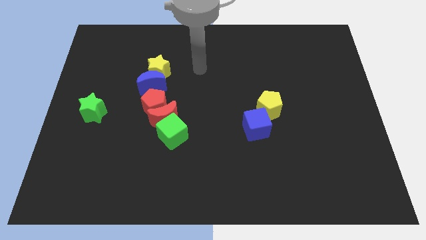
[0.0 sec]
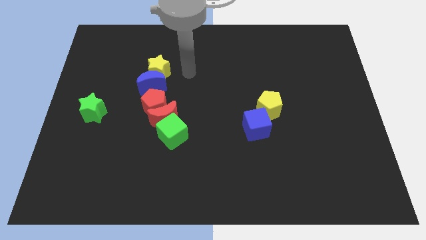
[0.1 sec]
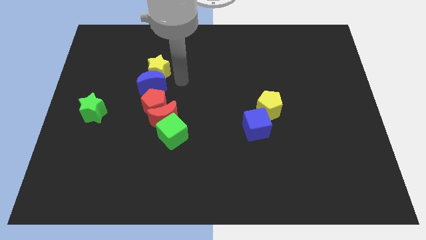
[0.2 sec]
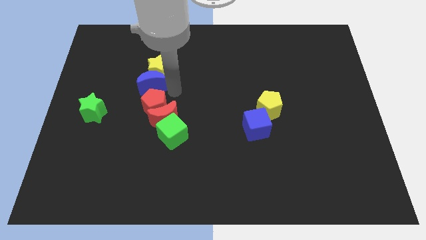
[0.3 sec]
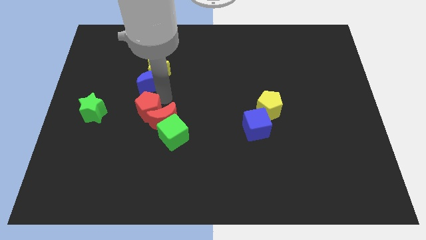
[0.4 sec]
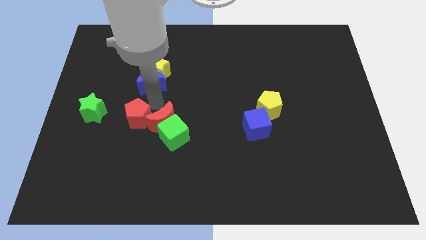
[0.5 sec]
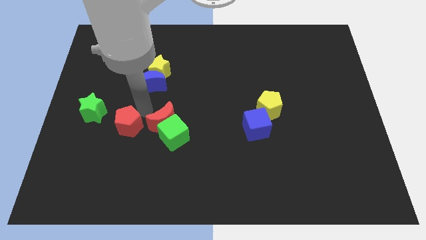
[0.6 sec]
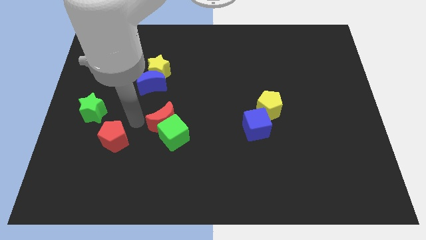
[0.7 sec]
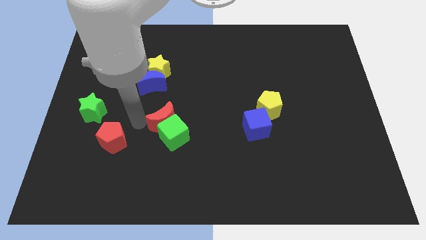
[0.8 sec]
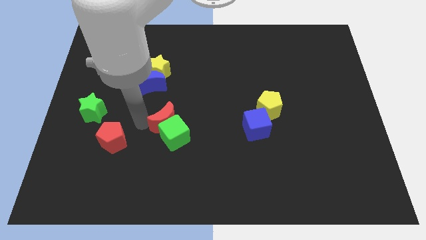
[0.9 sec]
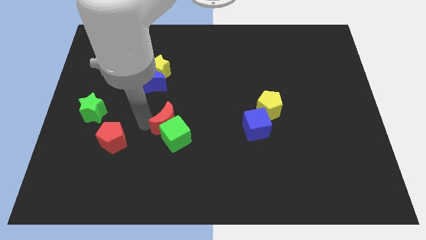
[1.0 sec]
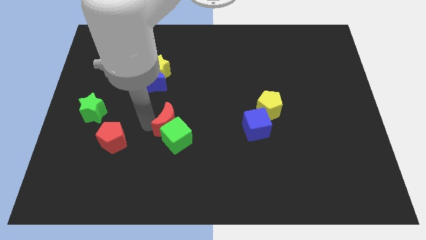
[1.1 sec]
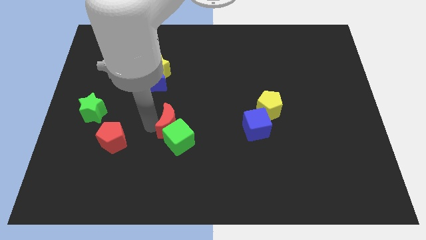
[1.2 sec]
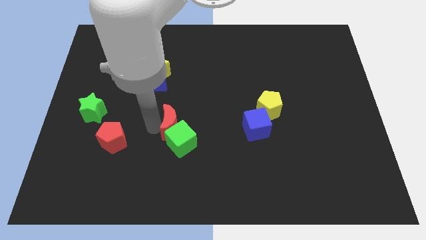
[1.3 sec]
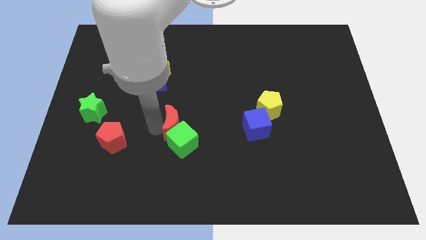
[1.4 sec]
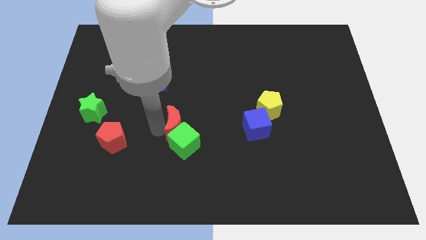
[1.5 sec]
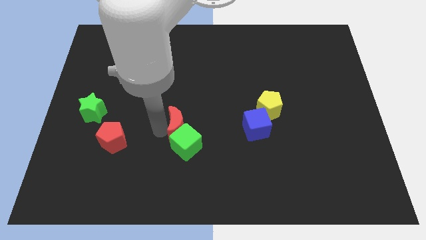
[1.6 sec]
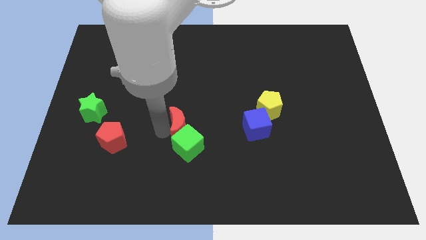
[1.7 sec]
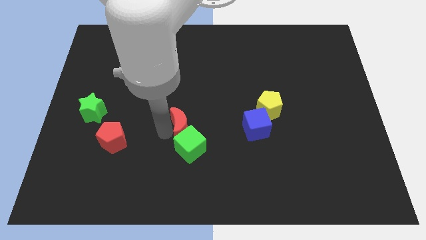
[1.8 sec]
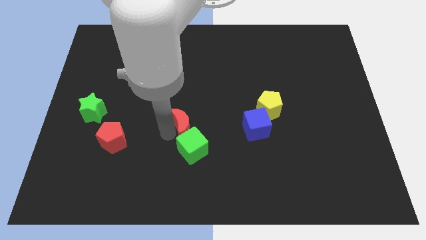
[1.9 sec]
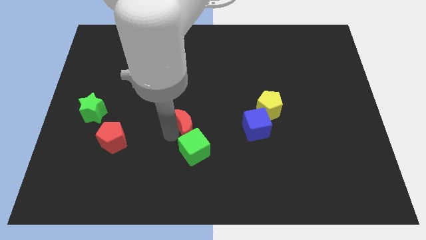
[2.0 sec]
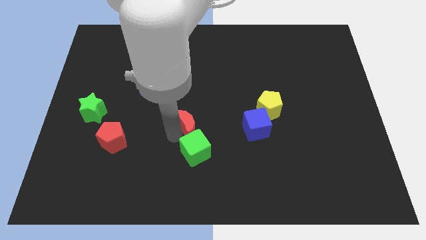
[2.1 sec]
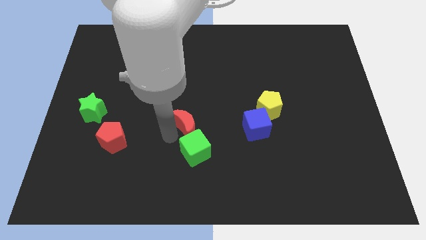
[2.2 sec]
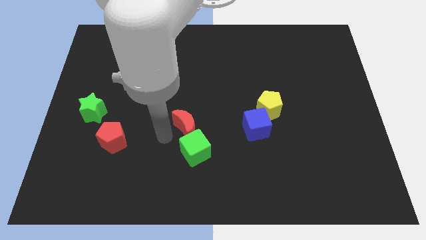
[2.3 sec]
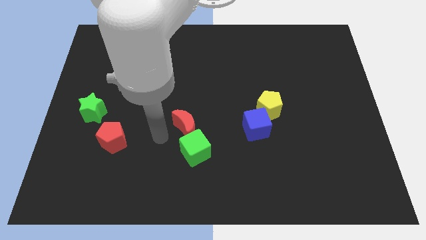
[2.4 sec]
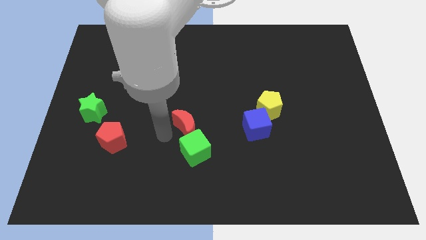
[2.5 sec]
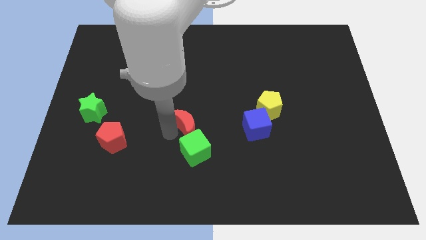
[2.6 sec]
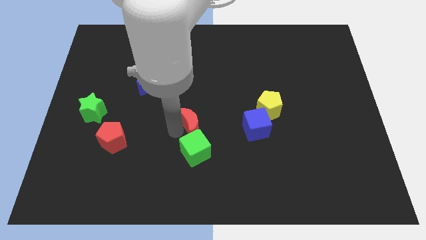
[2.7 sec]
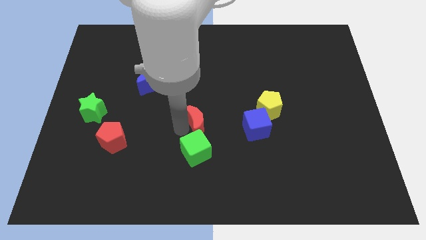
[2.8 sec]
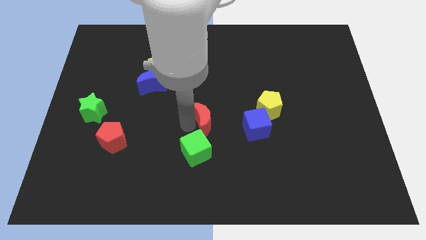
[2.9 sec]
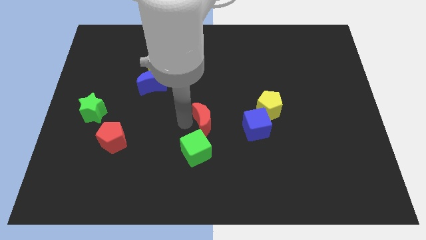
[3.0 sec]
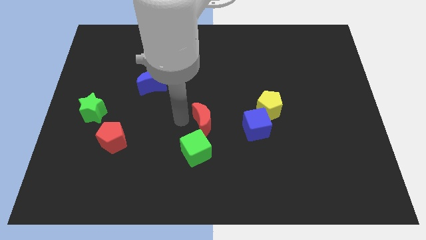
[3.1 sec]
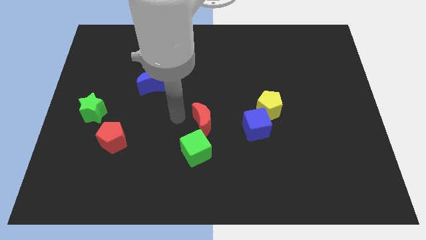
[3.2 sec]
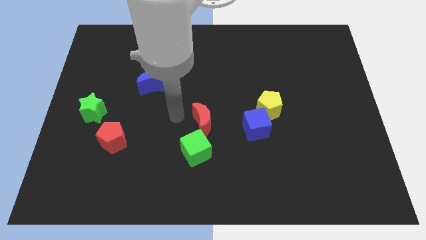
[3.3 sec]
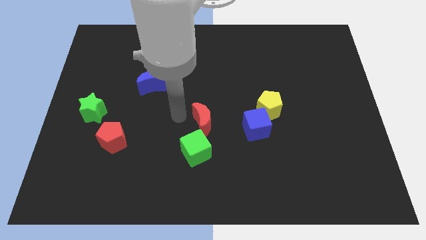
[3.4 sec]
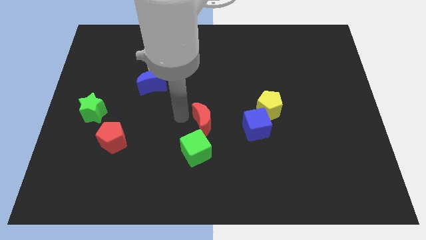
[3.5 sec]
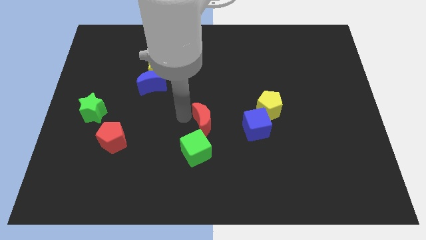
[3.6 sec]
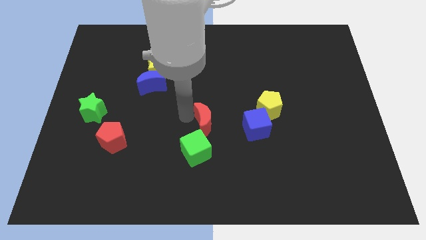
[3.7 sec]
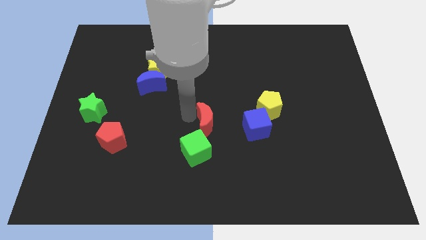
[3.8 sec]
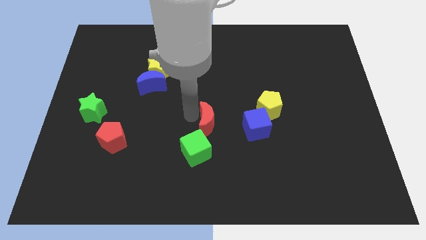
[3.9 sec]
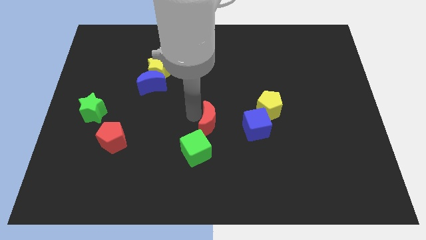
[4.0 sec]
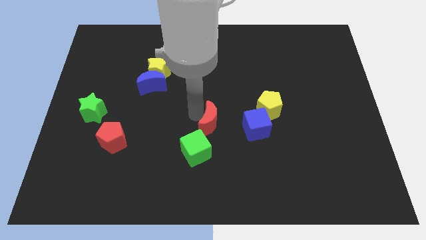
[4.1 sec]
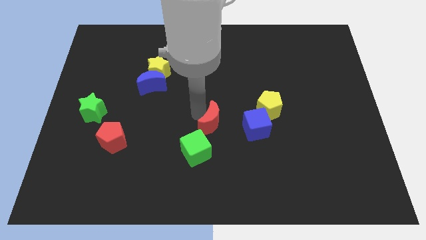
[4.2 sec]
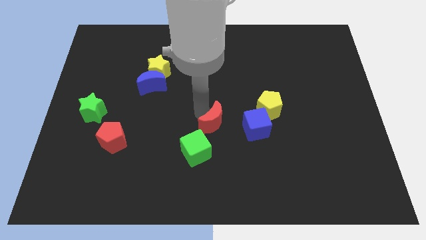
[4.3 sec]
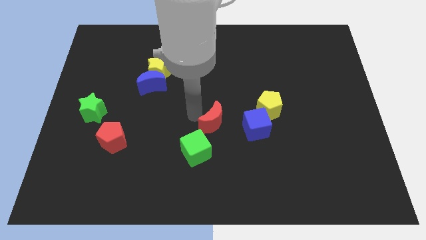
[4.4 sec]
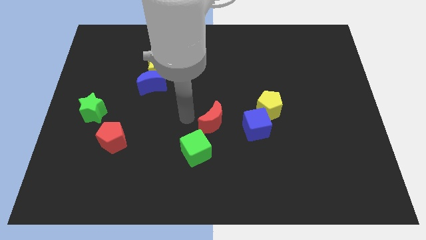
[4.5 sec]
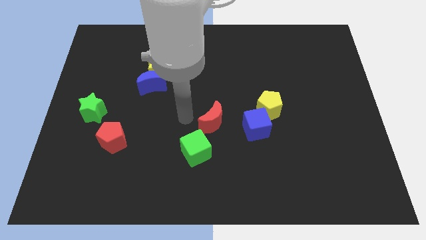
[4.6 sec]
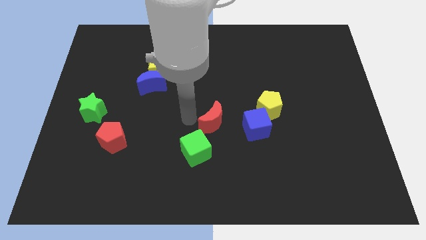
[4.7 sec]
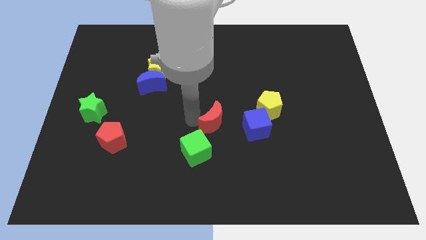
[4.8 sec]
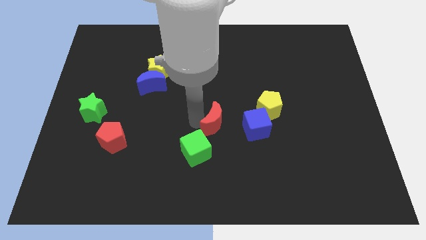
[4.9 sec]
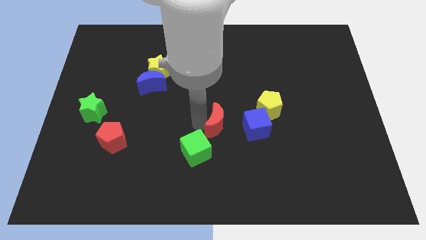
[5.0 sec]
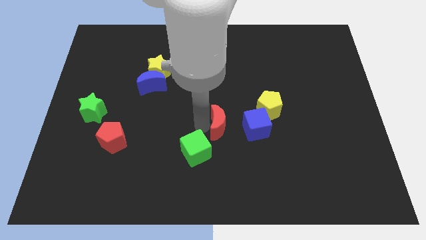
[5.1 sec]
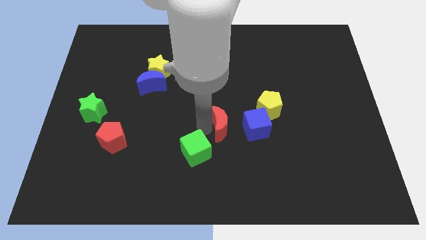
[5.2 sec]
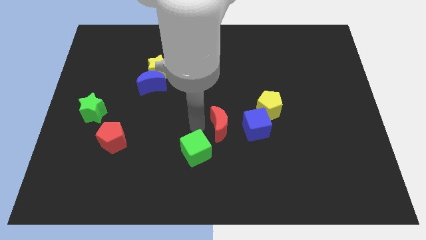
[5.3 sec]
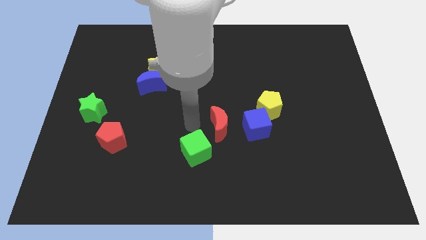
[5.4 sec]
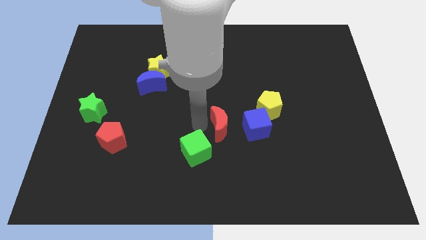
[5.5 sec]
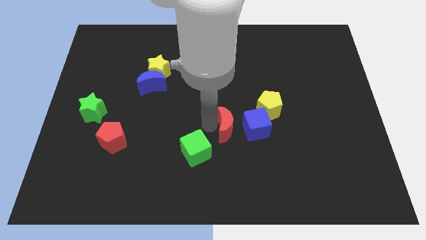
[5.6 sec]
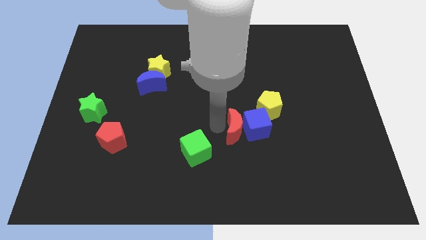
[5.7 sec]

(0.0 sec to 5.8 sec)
push the red moon towards the blue cube

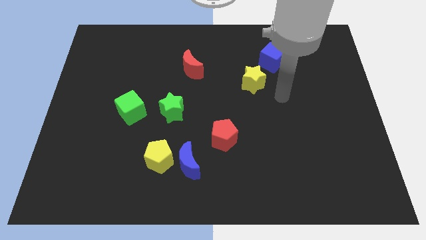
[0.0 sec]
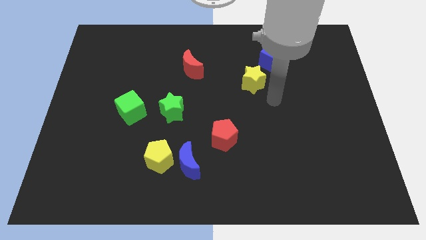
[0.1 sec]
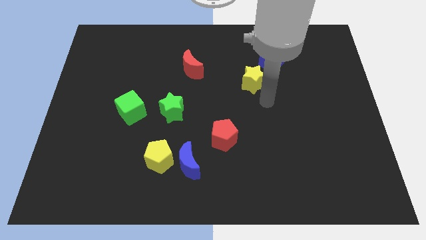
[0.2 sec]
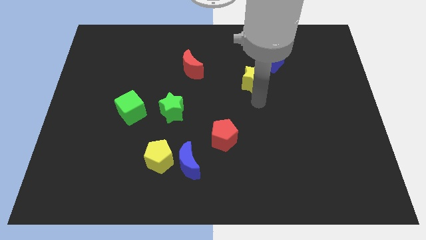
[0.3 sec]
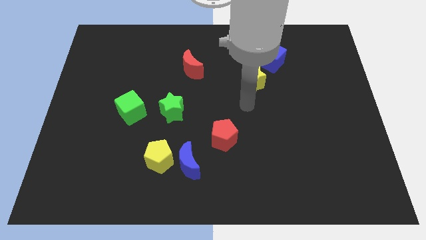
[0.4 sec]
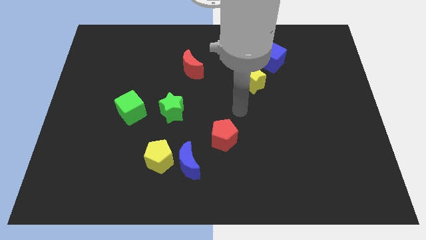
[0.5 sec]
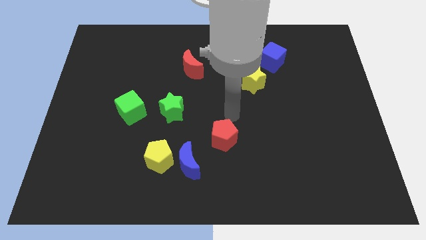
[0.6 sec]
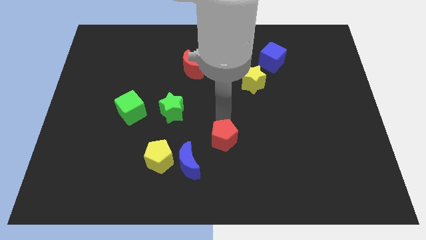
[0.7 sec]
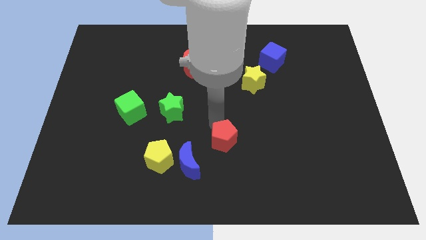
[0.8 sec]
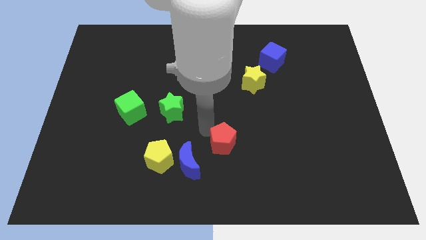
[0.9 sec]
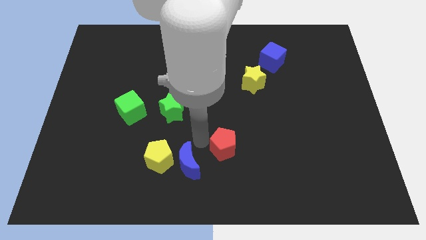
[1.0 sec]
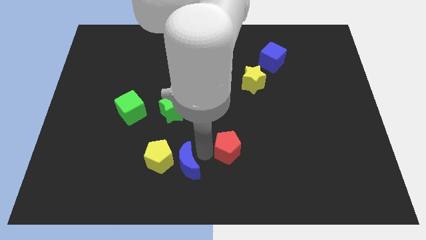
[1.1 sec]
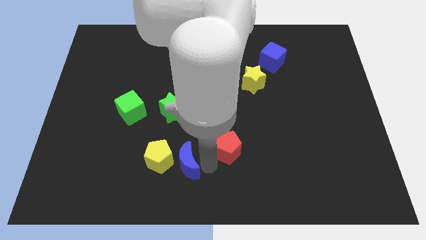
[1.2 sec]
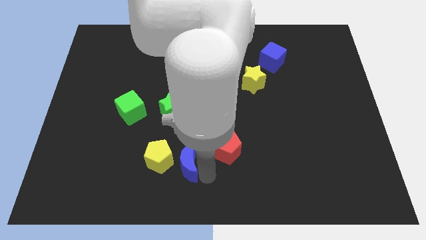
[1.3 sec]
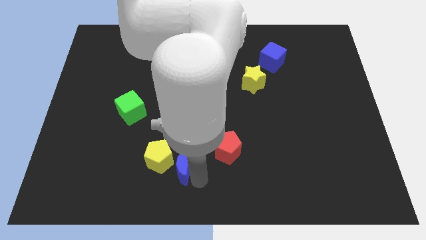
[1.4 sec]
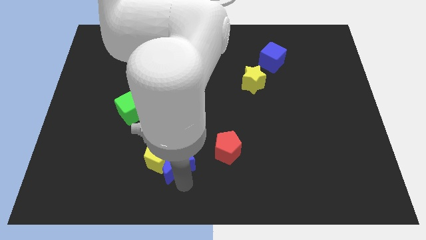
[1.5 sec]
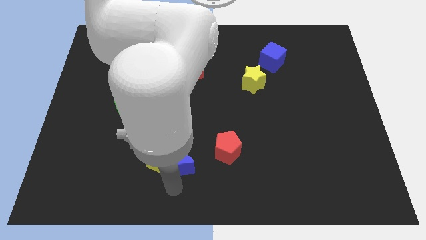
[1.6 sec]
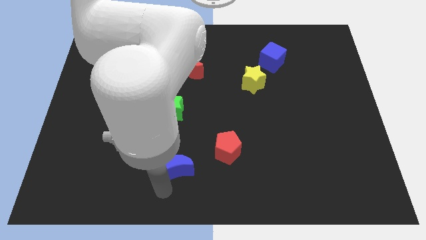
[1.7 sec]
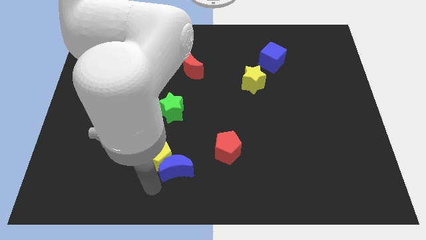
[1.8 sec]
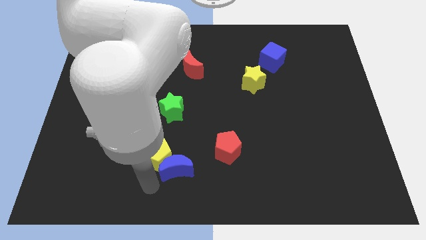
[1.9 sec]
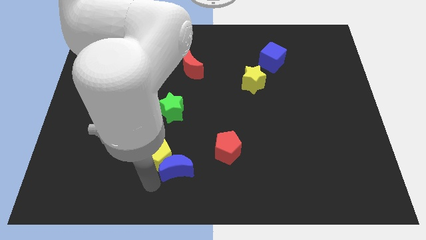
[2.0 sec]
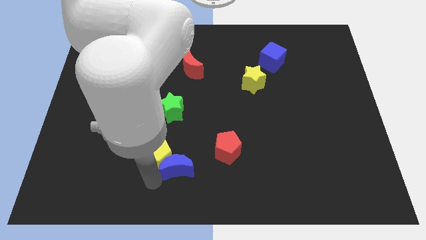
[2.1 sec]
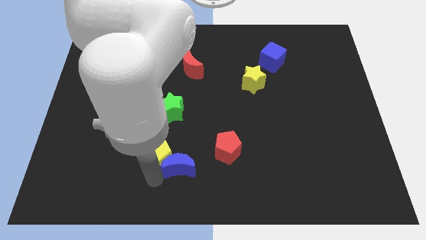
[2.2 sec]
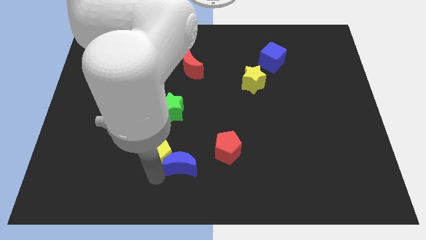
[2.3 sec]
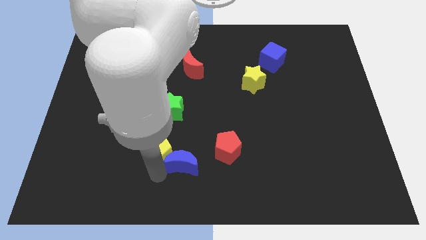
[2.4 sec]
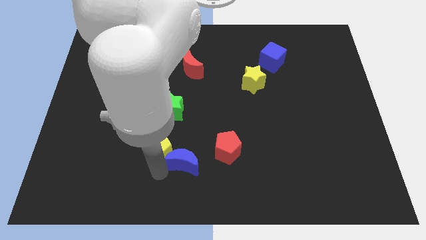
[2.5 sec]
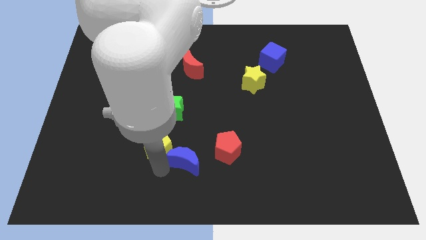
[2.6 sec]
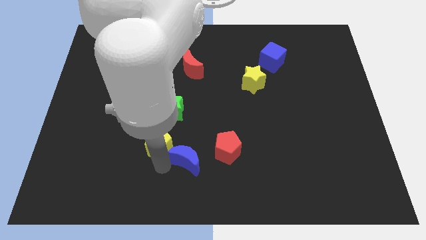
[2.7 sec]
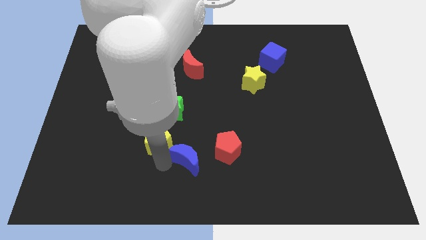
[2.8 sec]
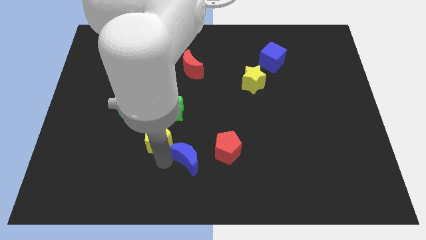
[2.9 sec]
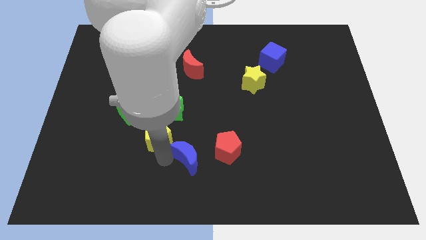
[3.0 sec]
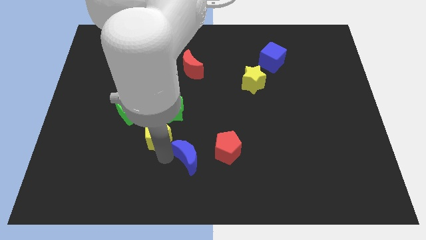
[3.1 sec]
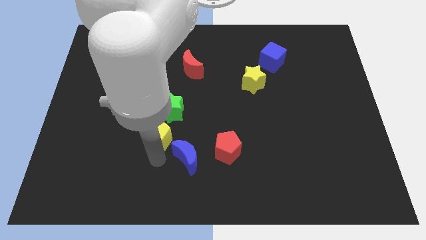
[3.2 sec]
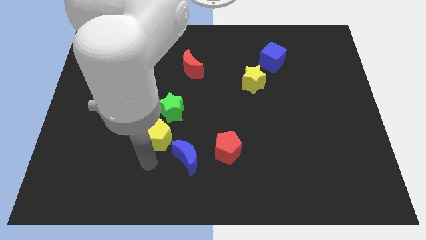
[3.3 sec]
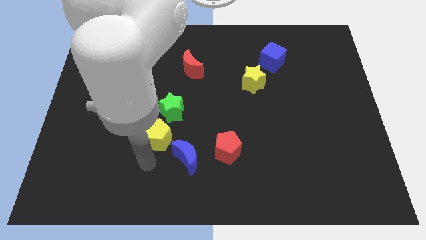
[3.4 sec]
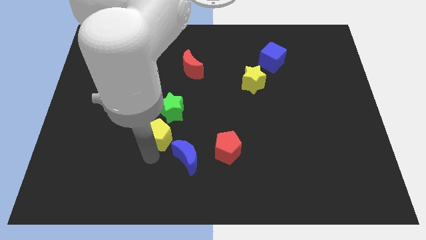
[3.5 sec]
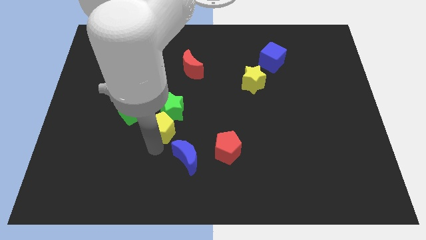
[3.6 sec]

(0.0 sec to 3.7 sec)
push the yellow pentagon to the green star
